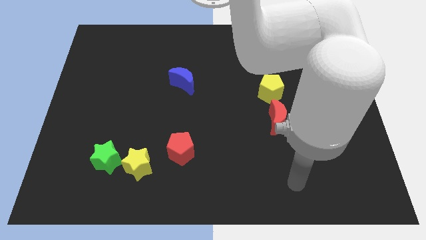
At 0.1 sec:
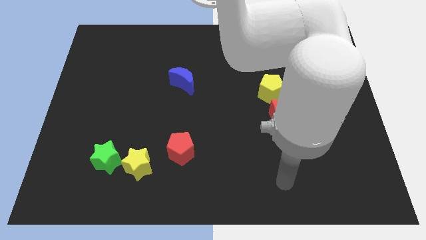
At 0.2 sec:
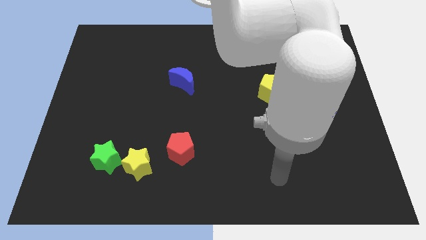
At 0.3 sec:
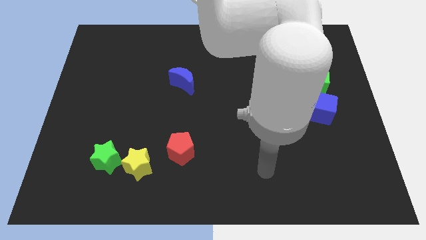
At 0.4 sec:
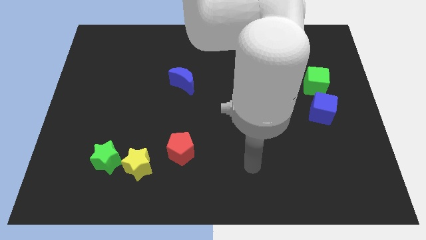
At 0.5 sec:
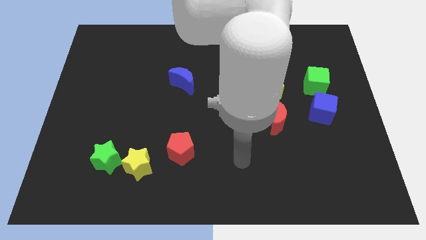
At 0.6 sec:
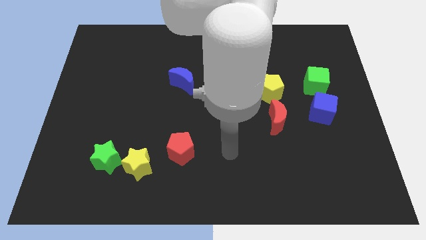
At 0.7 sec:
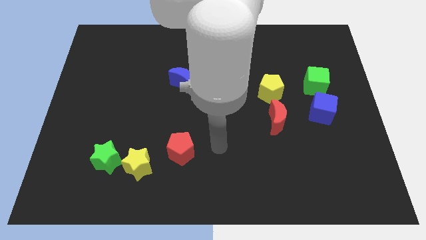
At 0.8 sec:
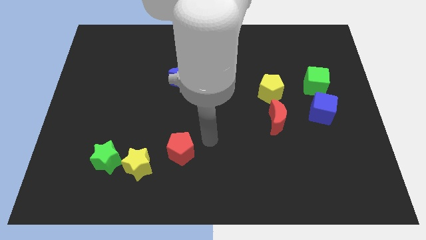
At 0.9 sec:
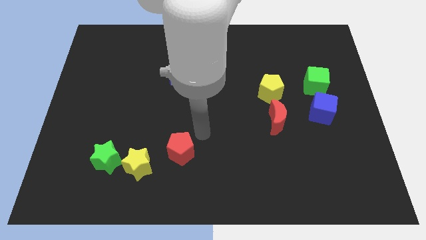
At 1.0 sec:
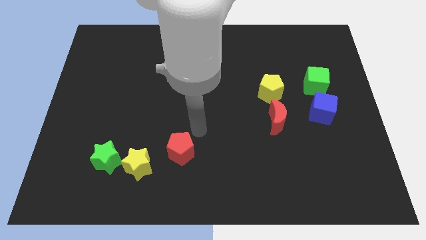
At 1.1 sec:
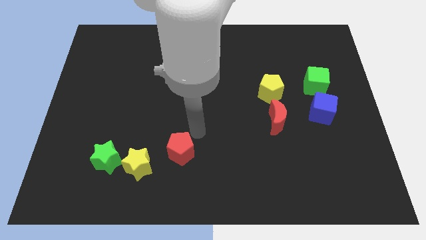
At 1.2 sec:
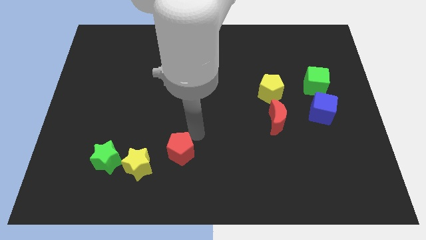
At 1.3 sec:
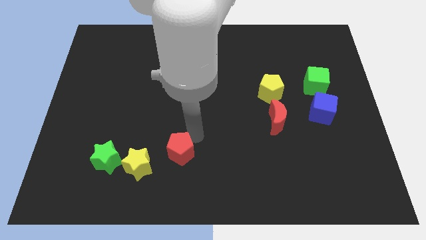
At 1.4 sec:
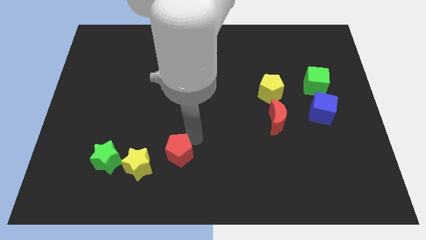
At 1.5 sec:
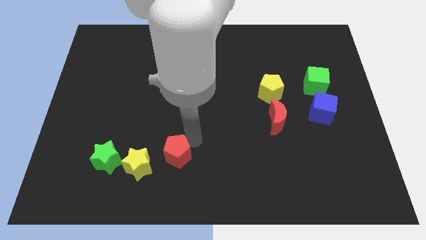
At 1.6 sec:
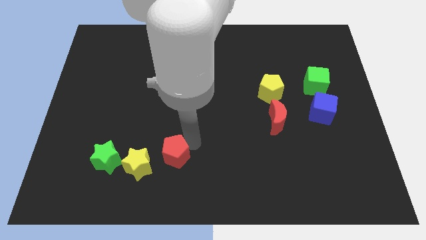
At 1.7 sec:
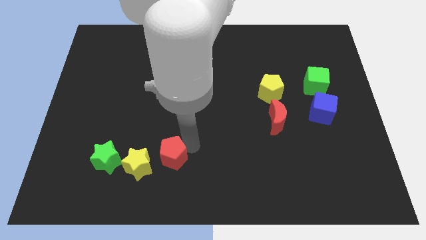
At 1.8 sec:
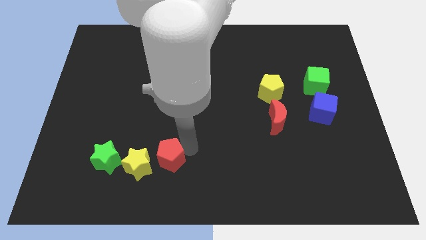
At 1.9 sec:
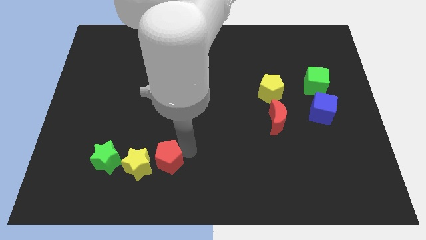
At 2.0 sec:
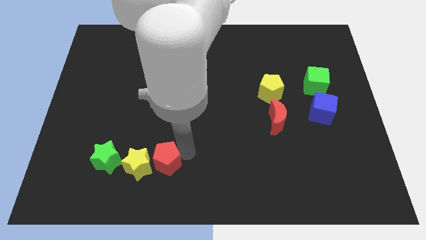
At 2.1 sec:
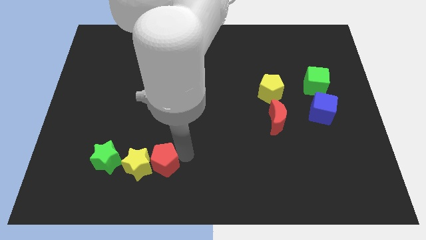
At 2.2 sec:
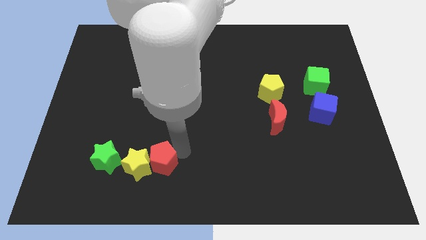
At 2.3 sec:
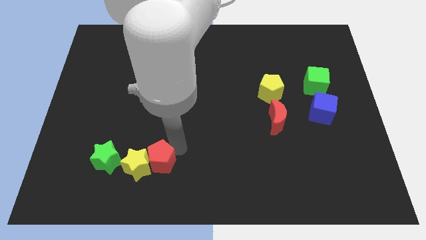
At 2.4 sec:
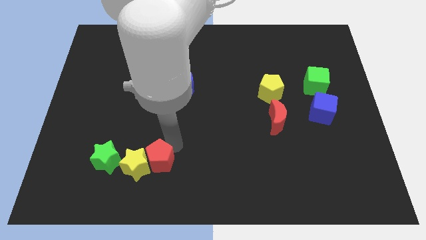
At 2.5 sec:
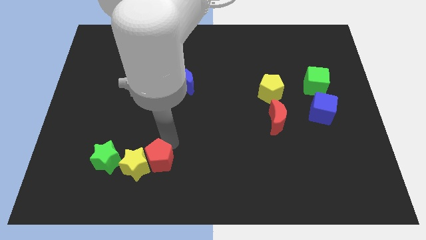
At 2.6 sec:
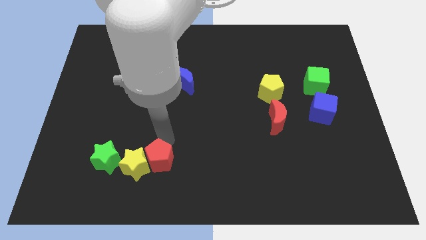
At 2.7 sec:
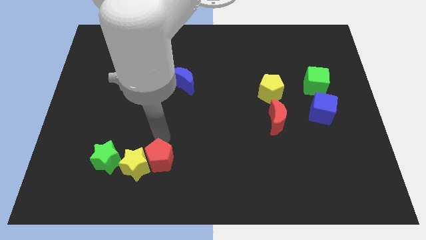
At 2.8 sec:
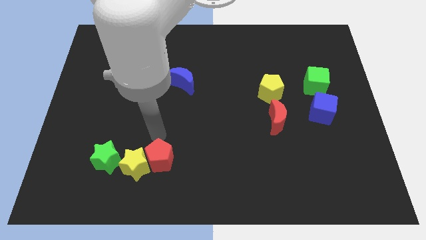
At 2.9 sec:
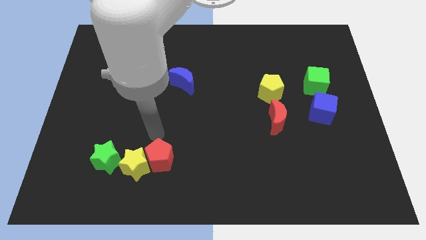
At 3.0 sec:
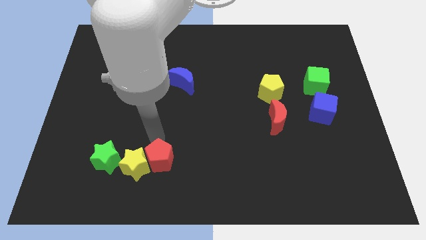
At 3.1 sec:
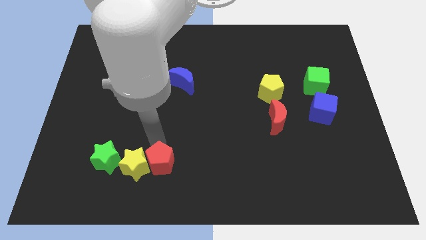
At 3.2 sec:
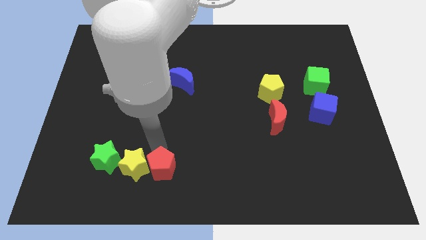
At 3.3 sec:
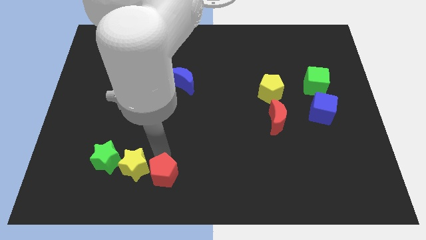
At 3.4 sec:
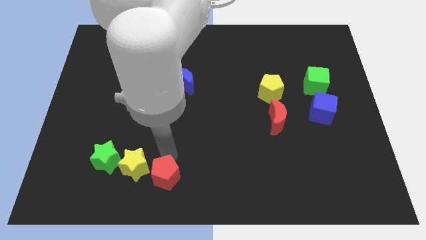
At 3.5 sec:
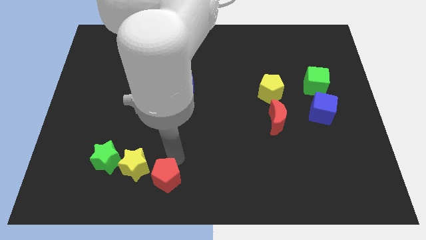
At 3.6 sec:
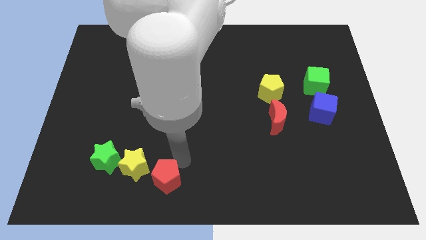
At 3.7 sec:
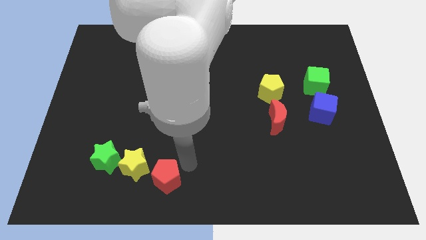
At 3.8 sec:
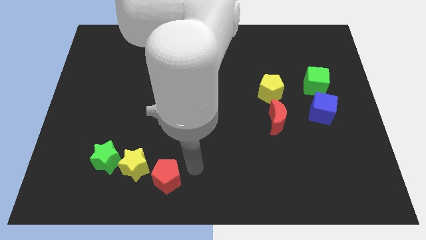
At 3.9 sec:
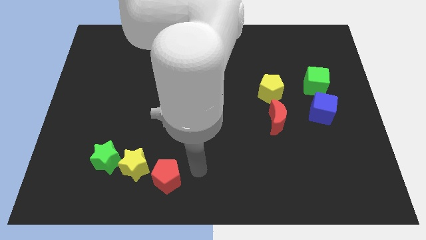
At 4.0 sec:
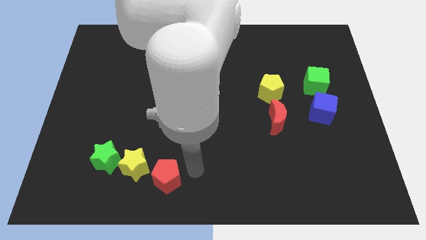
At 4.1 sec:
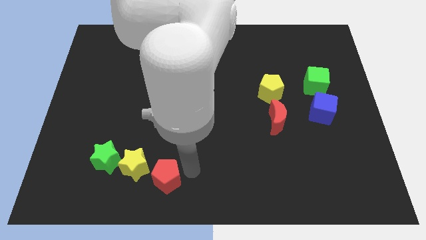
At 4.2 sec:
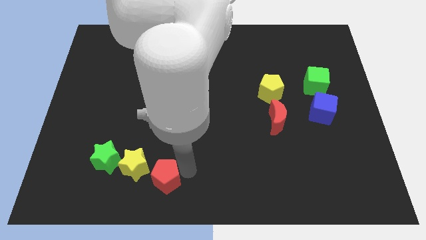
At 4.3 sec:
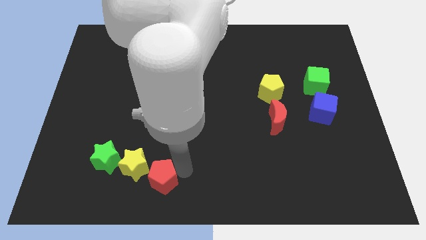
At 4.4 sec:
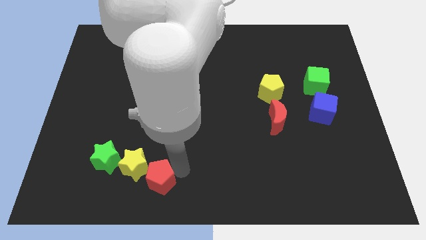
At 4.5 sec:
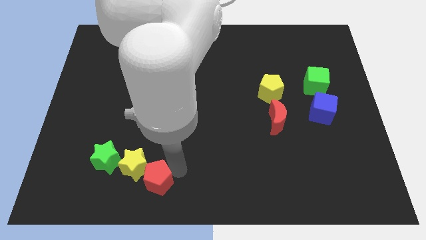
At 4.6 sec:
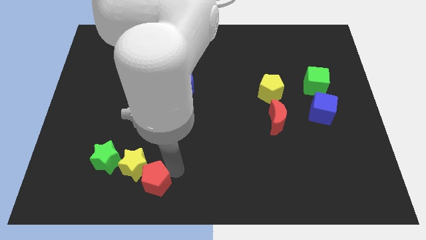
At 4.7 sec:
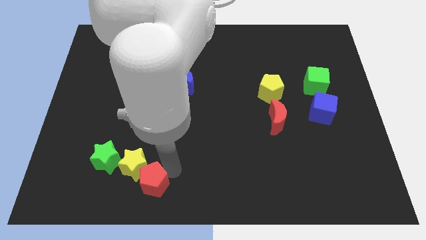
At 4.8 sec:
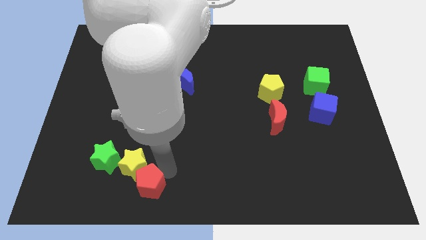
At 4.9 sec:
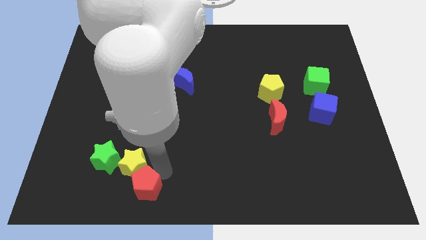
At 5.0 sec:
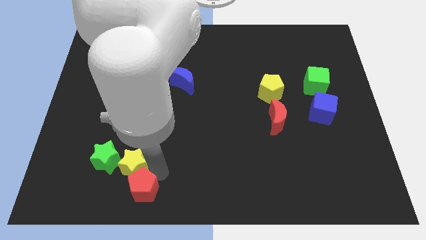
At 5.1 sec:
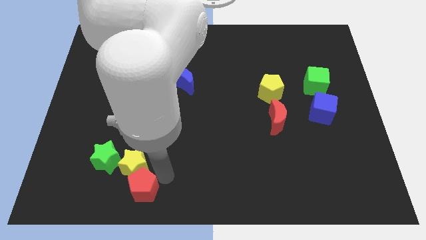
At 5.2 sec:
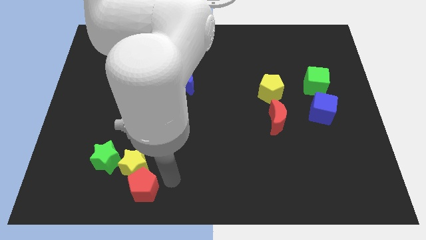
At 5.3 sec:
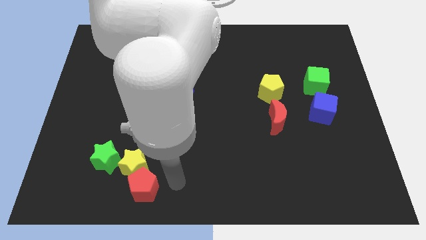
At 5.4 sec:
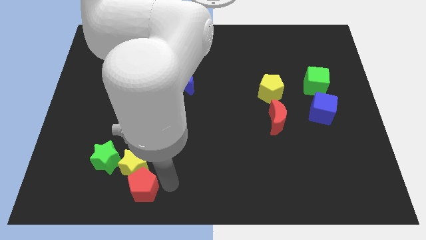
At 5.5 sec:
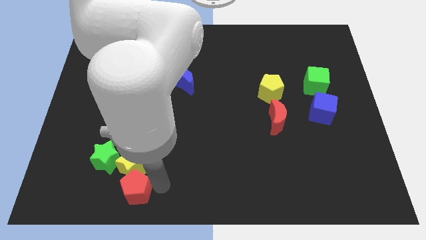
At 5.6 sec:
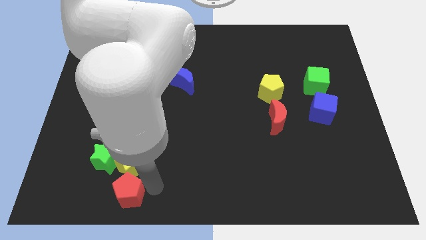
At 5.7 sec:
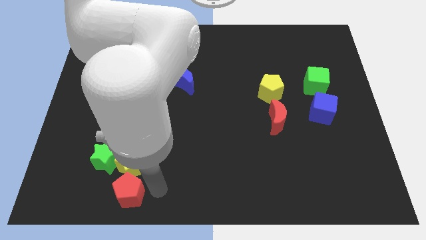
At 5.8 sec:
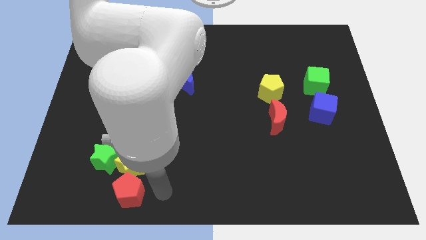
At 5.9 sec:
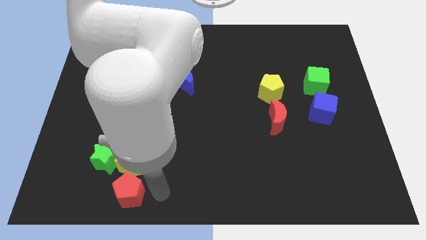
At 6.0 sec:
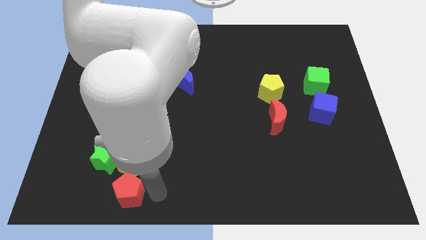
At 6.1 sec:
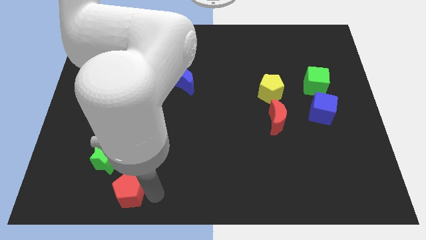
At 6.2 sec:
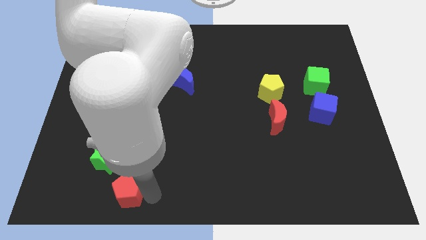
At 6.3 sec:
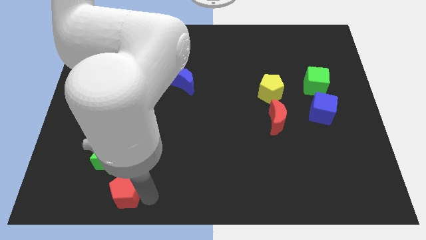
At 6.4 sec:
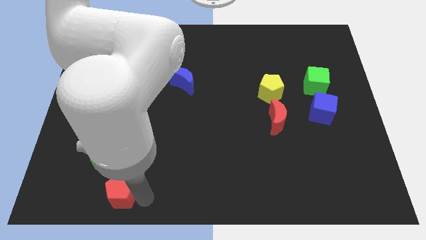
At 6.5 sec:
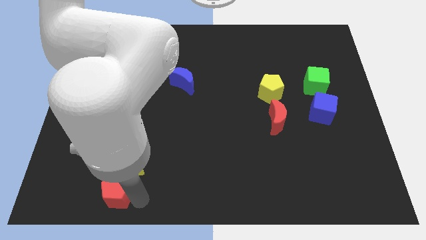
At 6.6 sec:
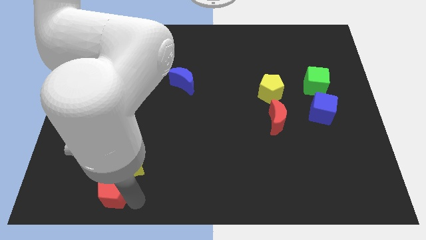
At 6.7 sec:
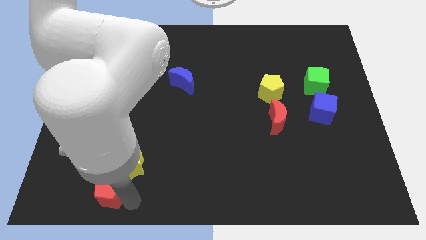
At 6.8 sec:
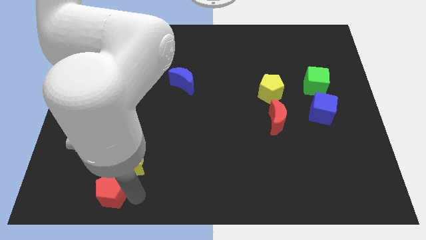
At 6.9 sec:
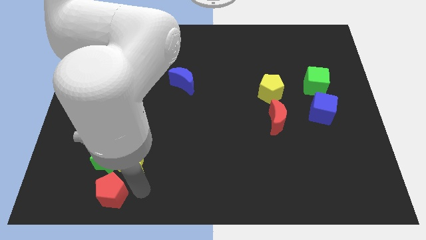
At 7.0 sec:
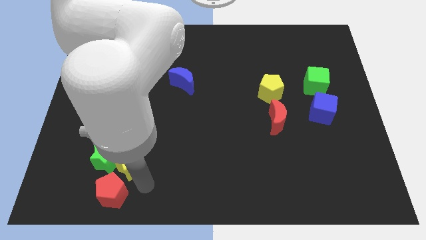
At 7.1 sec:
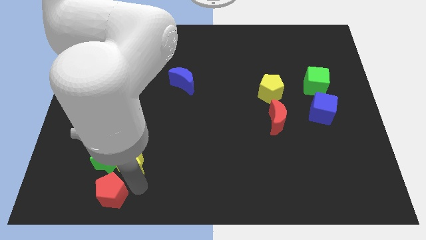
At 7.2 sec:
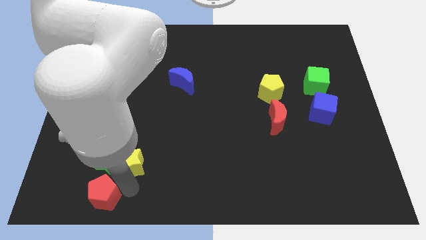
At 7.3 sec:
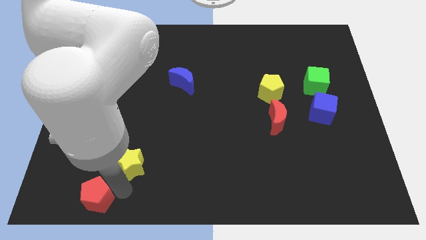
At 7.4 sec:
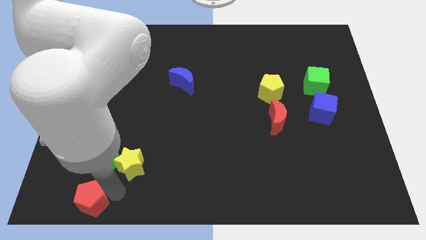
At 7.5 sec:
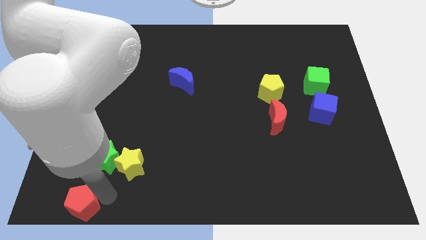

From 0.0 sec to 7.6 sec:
push the red pentagon to the bottom left corner
